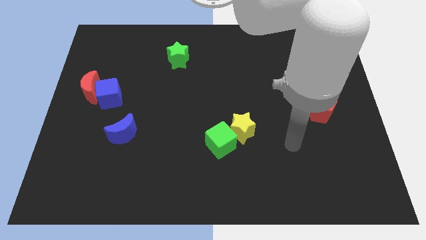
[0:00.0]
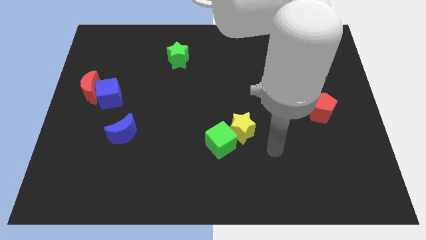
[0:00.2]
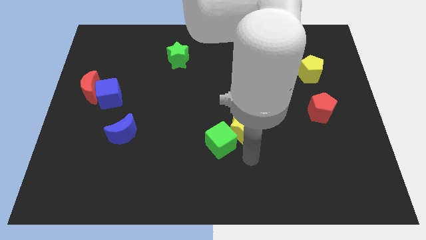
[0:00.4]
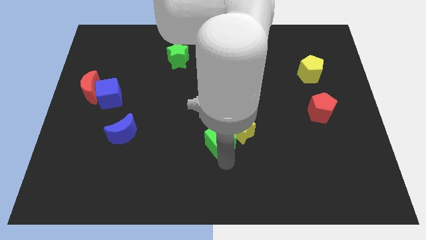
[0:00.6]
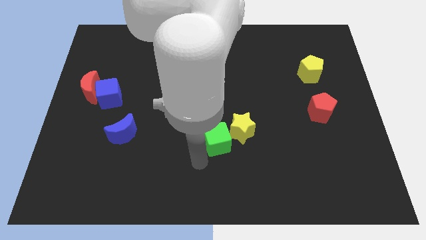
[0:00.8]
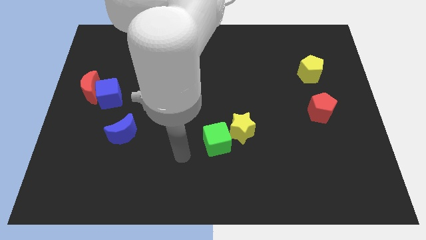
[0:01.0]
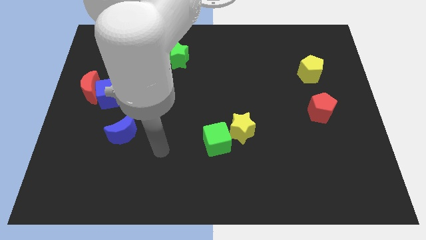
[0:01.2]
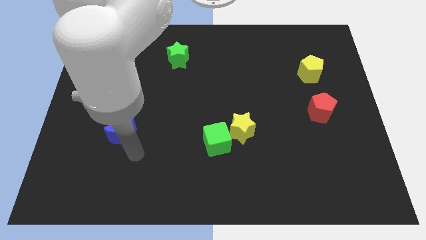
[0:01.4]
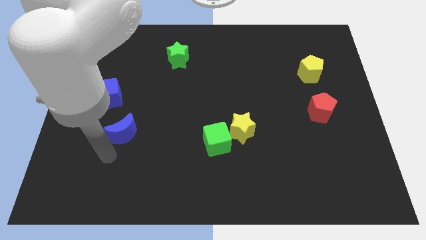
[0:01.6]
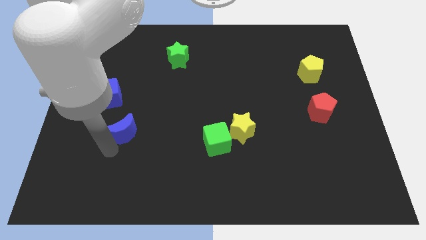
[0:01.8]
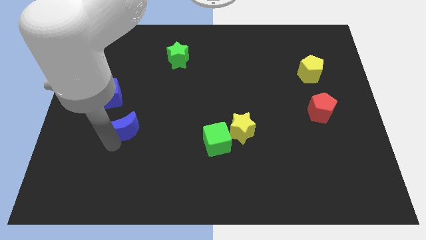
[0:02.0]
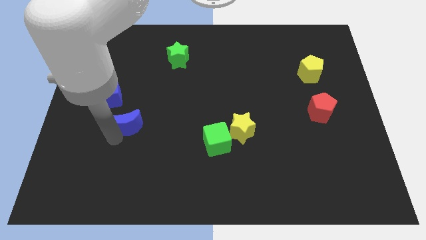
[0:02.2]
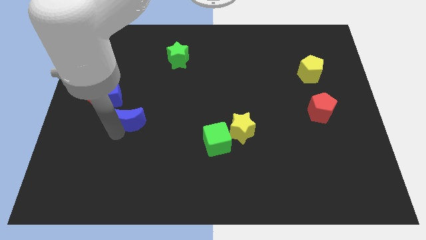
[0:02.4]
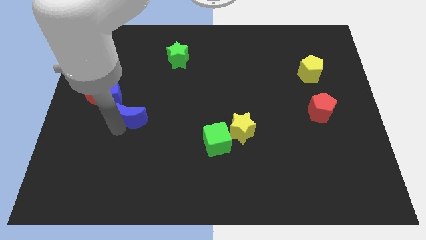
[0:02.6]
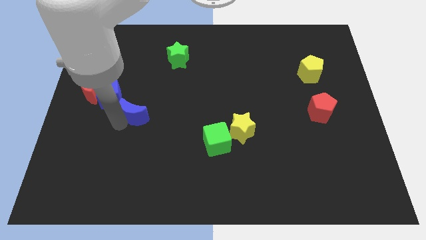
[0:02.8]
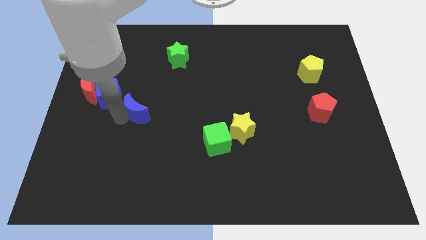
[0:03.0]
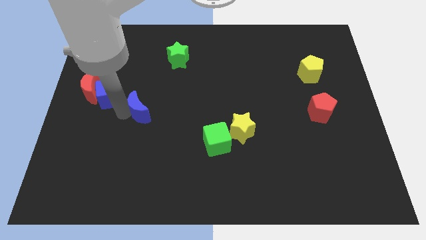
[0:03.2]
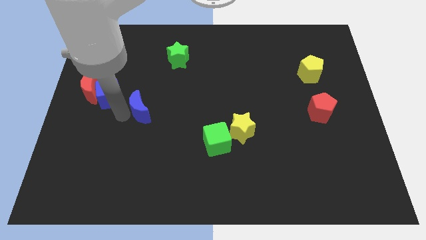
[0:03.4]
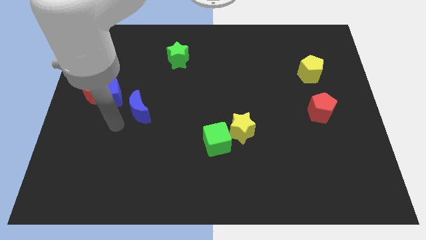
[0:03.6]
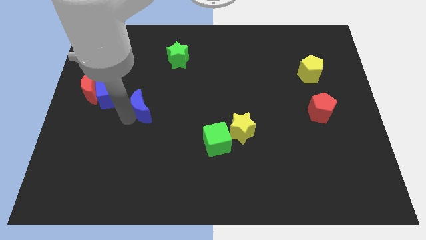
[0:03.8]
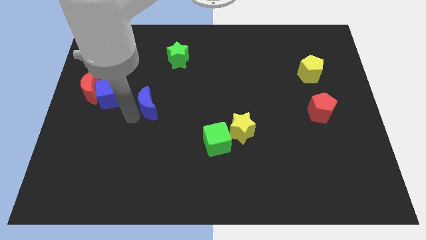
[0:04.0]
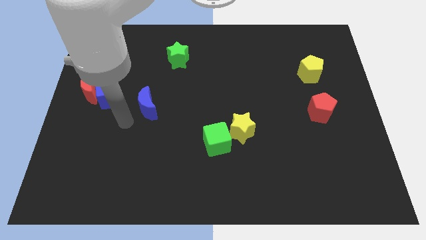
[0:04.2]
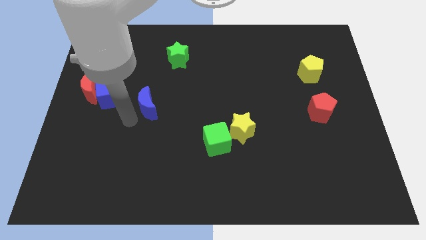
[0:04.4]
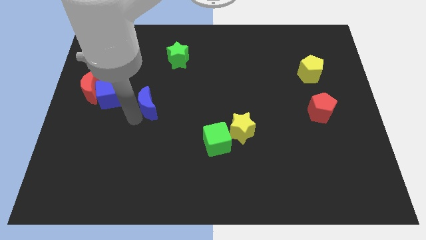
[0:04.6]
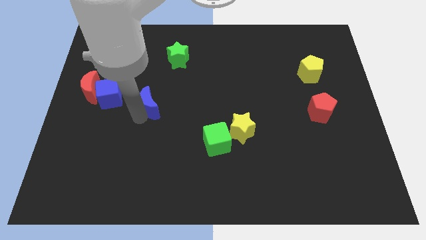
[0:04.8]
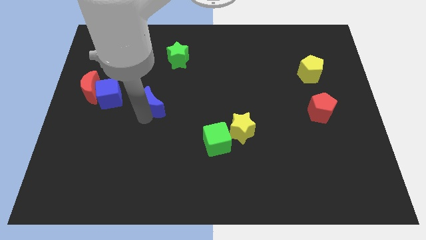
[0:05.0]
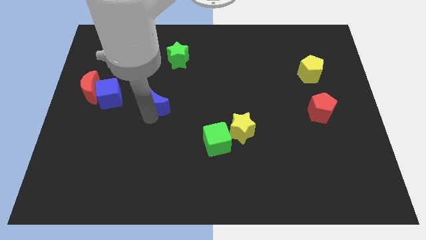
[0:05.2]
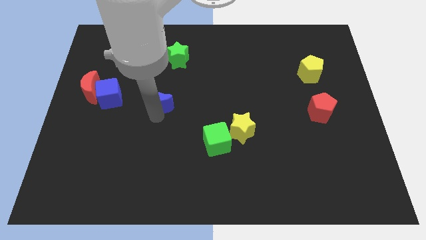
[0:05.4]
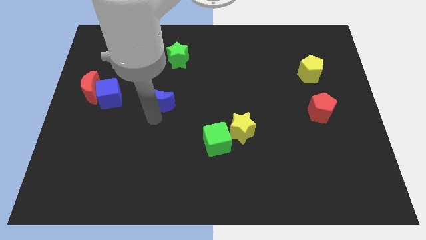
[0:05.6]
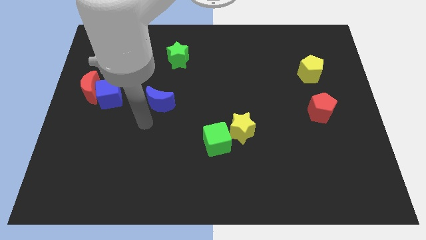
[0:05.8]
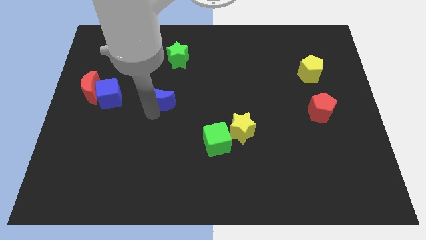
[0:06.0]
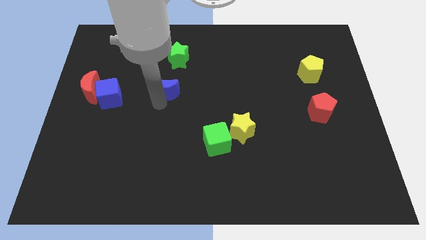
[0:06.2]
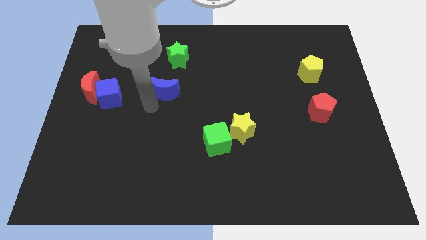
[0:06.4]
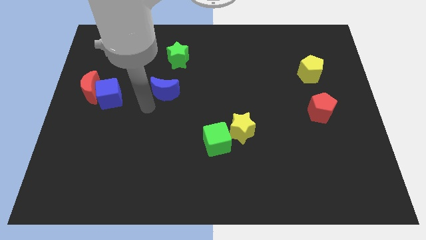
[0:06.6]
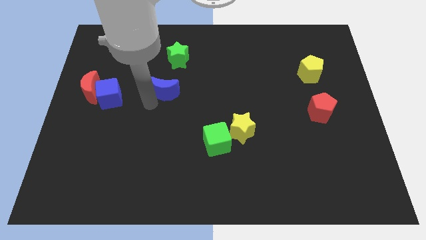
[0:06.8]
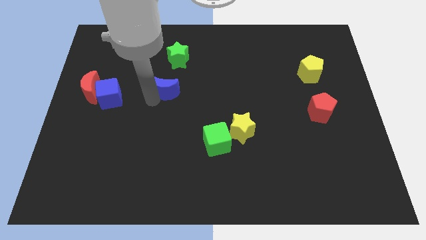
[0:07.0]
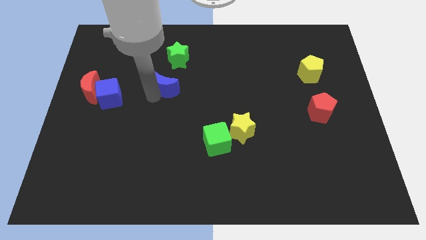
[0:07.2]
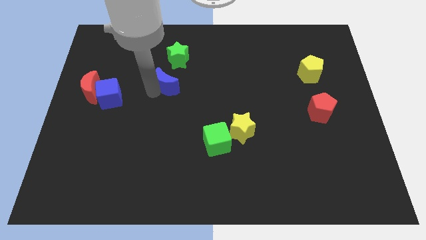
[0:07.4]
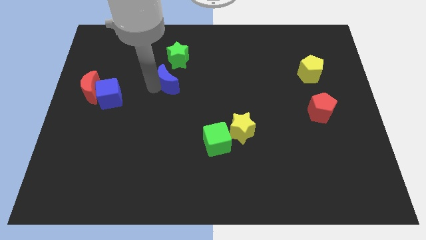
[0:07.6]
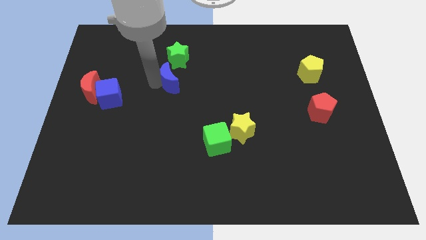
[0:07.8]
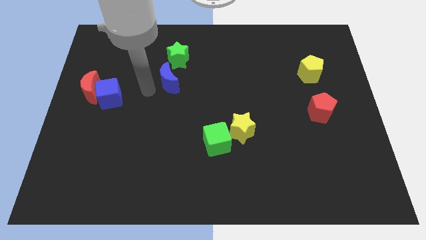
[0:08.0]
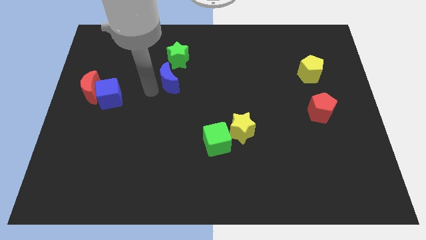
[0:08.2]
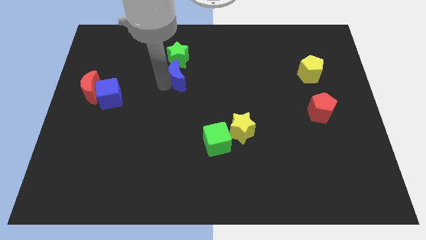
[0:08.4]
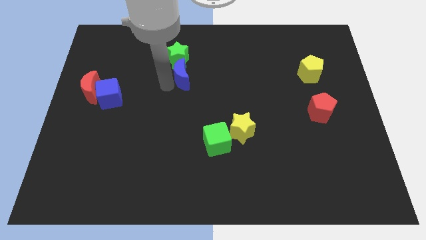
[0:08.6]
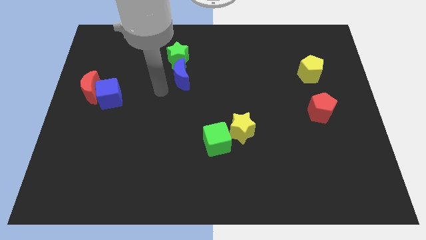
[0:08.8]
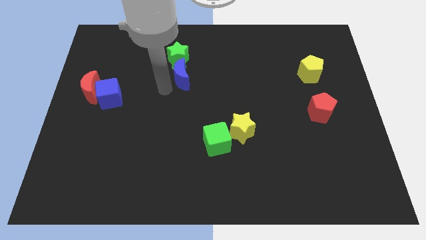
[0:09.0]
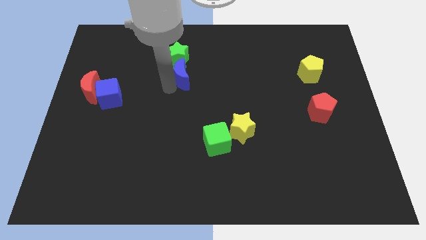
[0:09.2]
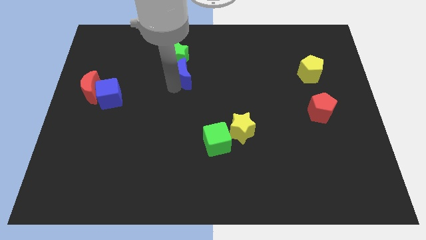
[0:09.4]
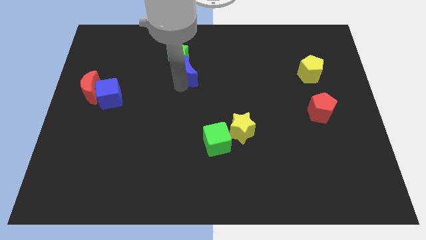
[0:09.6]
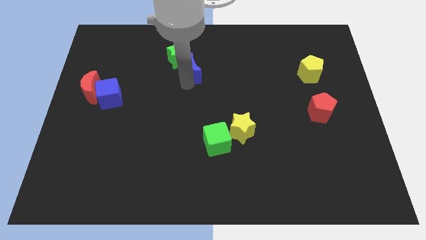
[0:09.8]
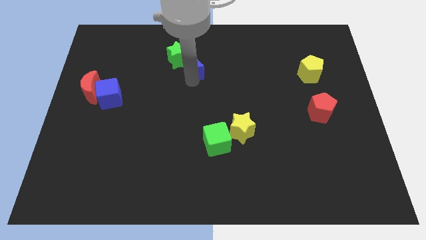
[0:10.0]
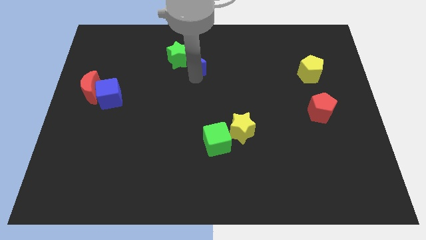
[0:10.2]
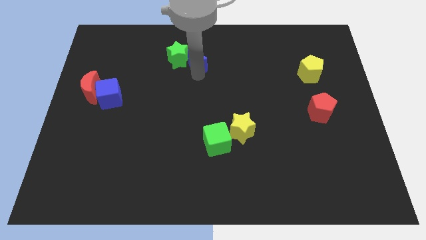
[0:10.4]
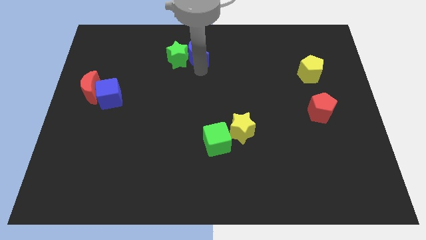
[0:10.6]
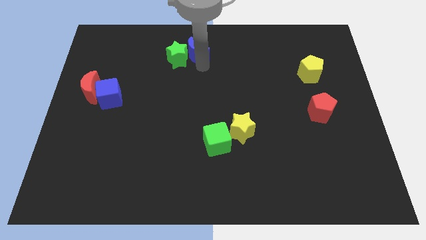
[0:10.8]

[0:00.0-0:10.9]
push the blue moon to the towards your base

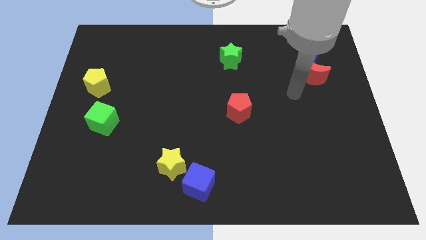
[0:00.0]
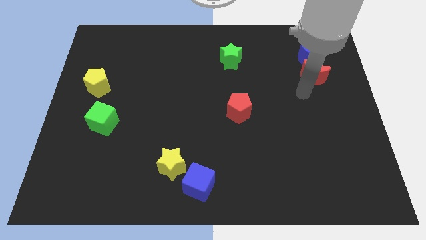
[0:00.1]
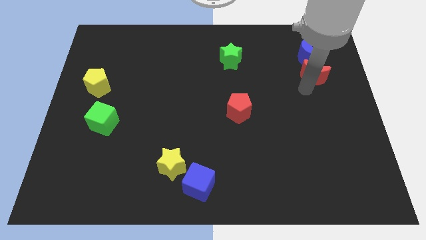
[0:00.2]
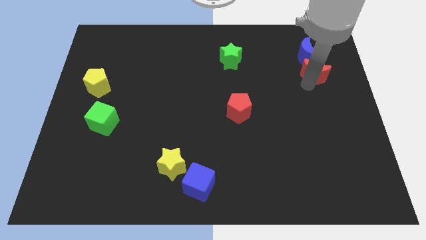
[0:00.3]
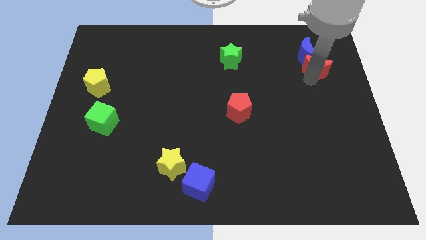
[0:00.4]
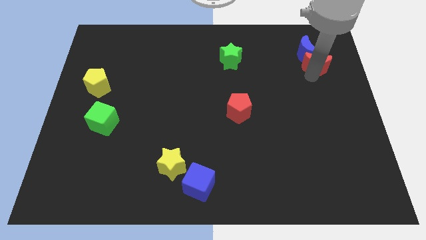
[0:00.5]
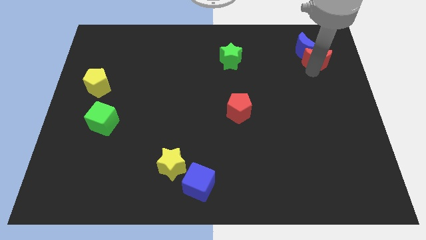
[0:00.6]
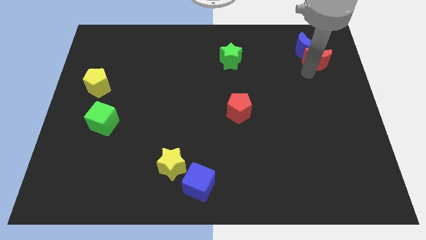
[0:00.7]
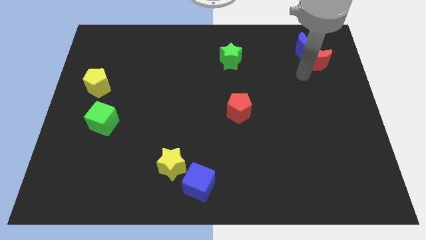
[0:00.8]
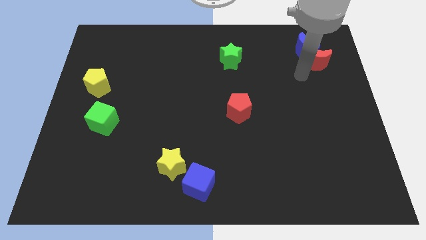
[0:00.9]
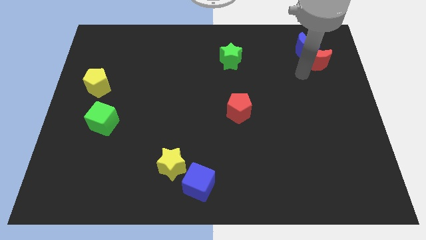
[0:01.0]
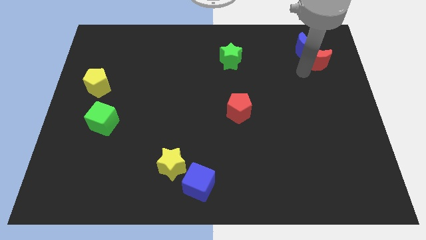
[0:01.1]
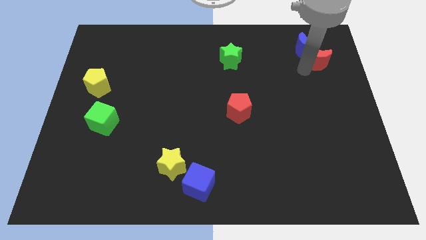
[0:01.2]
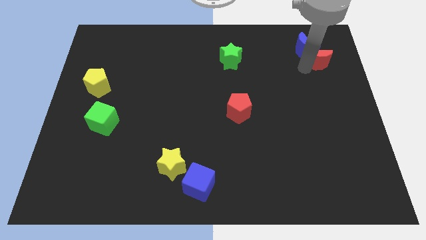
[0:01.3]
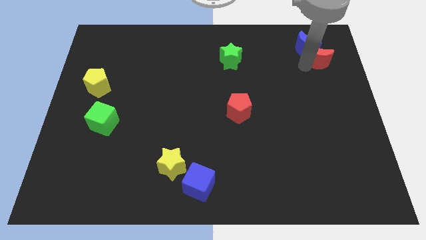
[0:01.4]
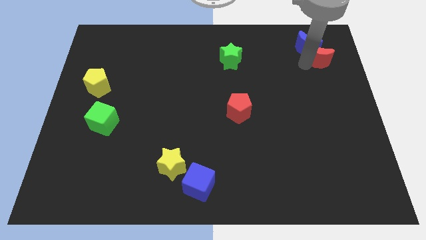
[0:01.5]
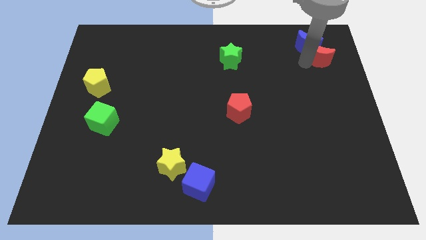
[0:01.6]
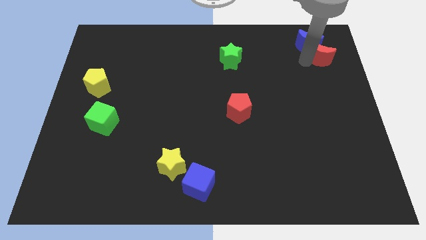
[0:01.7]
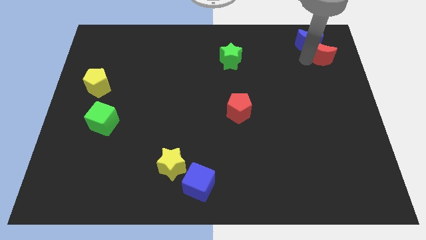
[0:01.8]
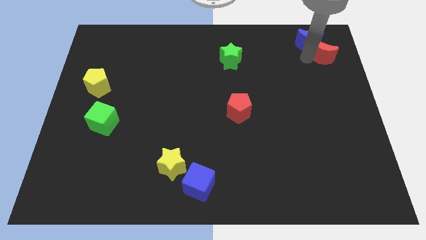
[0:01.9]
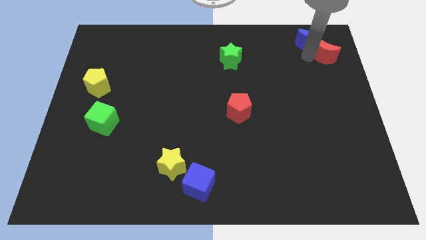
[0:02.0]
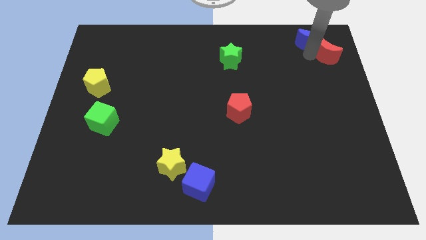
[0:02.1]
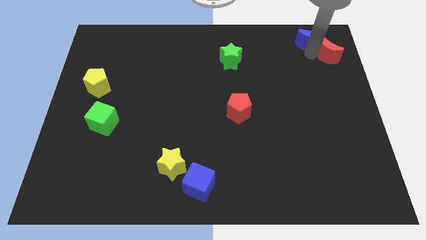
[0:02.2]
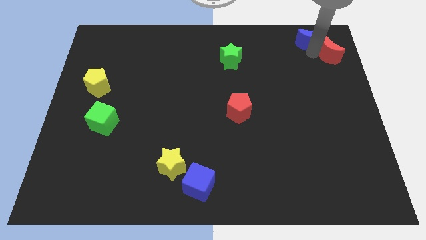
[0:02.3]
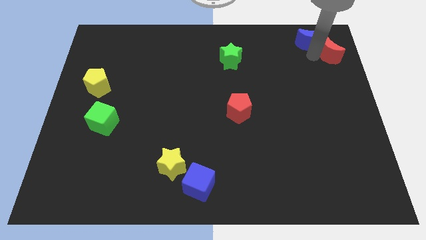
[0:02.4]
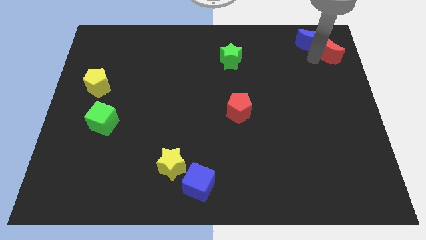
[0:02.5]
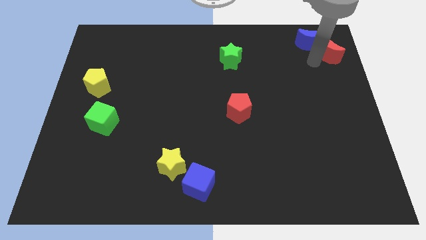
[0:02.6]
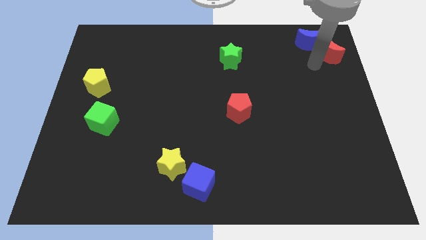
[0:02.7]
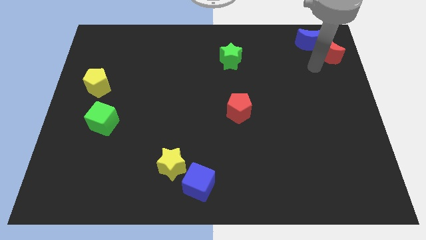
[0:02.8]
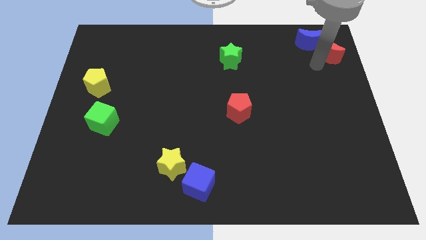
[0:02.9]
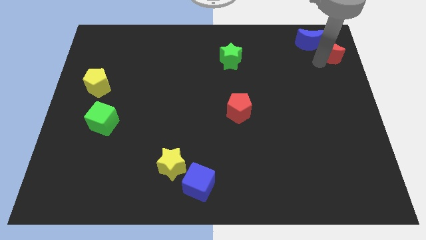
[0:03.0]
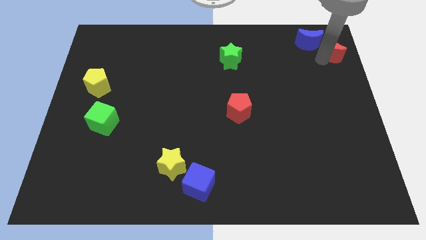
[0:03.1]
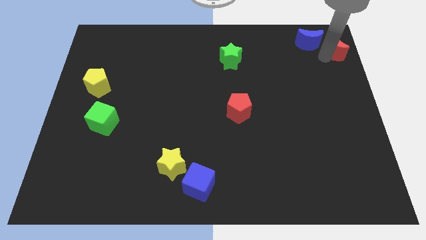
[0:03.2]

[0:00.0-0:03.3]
slide the red moon to the top right
